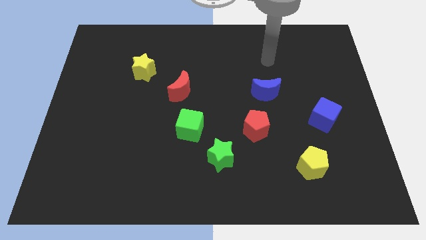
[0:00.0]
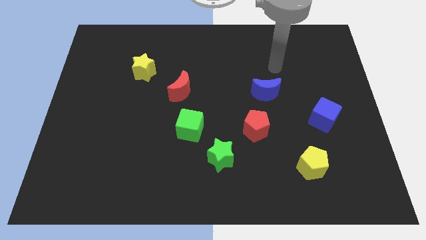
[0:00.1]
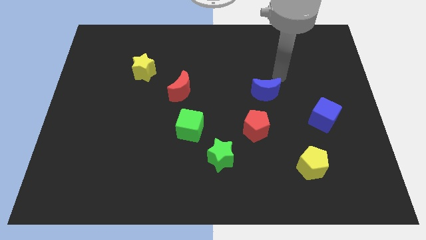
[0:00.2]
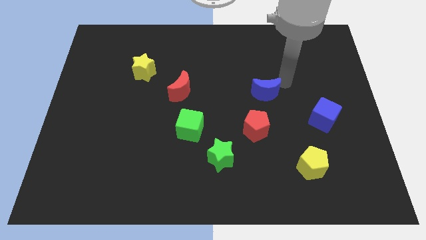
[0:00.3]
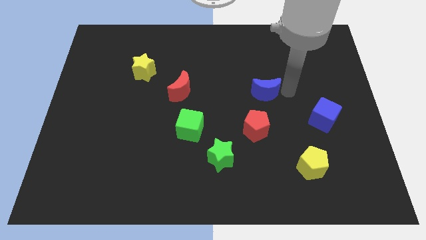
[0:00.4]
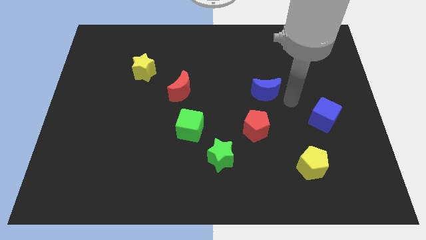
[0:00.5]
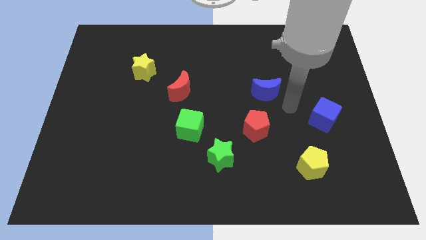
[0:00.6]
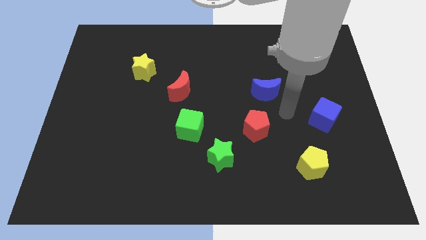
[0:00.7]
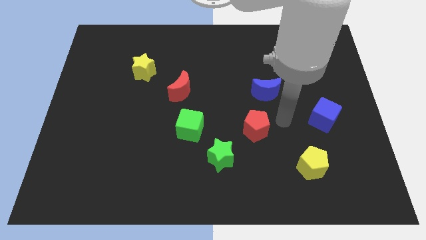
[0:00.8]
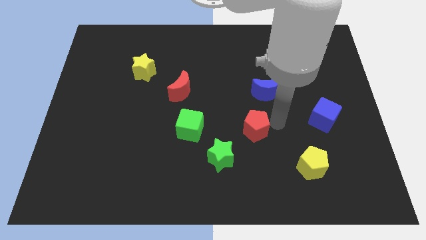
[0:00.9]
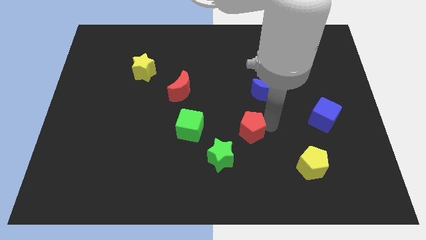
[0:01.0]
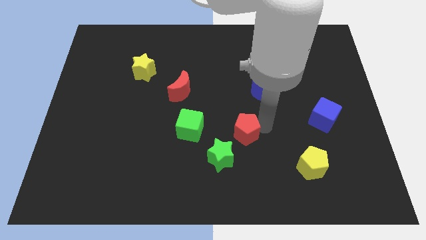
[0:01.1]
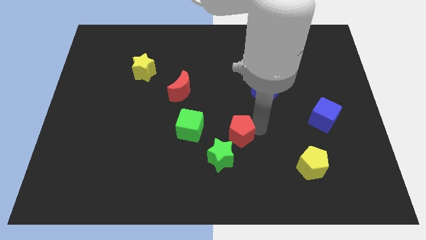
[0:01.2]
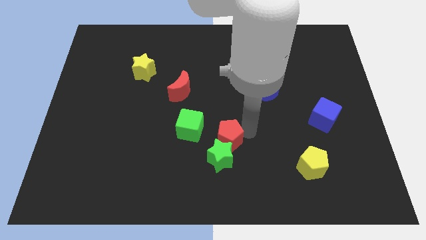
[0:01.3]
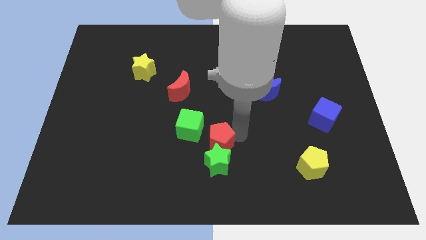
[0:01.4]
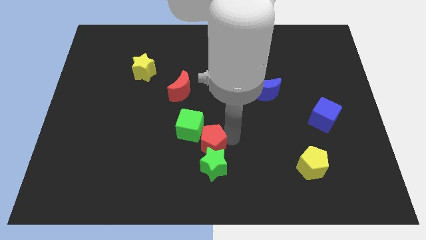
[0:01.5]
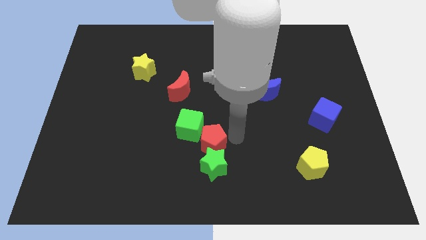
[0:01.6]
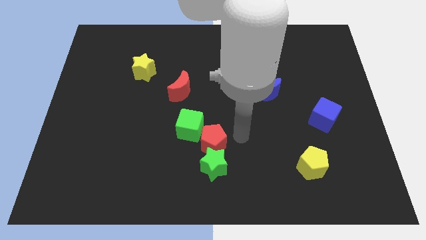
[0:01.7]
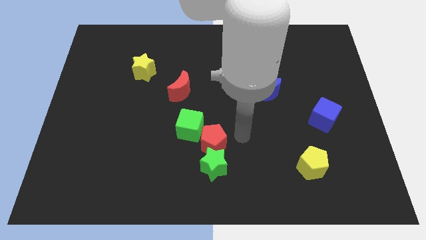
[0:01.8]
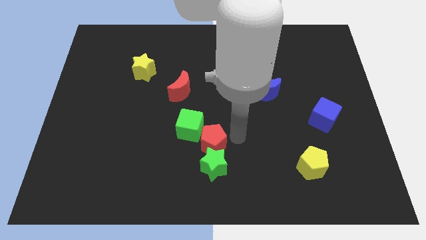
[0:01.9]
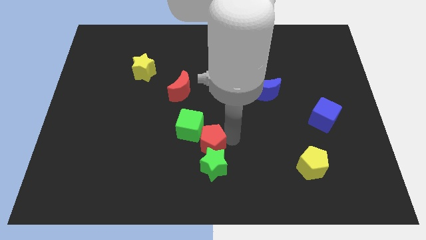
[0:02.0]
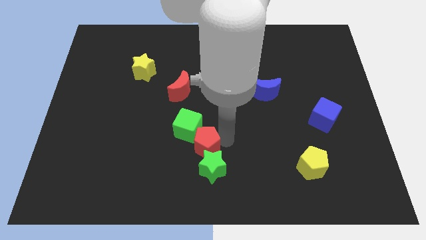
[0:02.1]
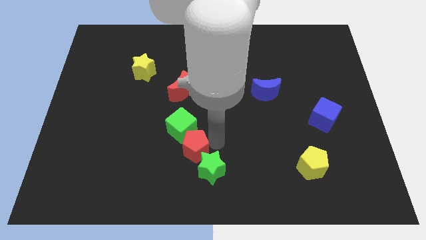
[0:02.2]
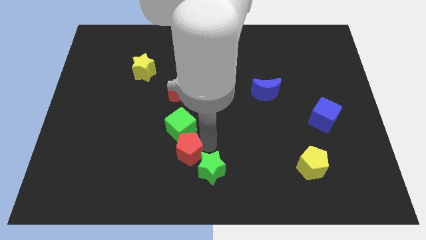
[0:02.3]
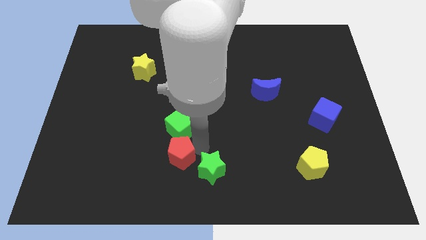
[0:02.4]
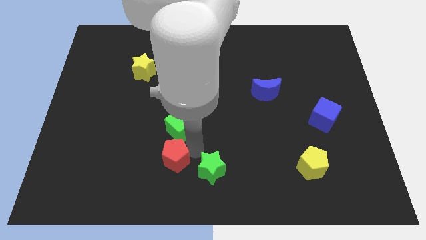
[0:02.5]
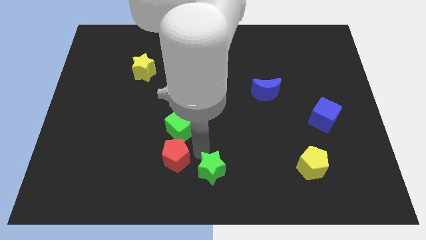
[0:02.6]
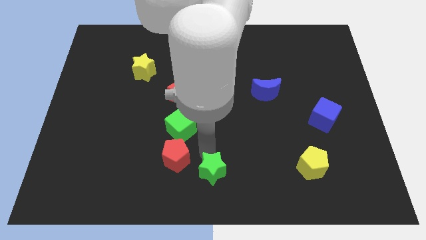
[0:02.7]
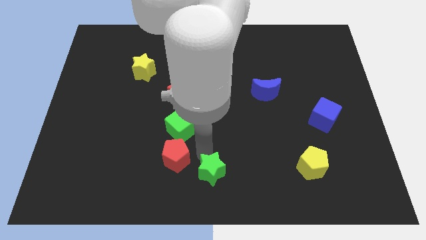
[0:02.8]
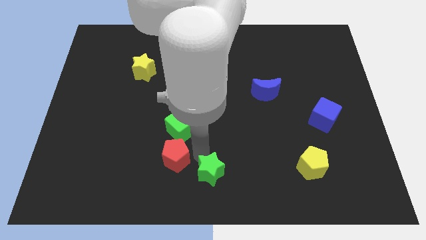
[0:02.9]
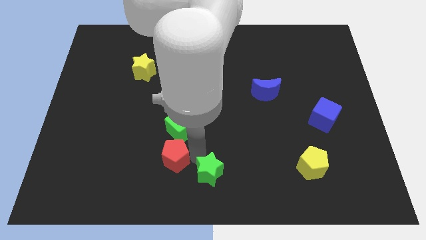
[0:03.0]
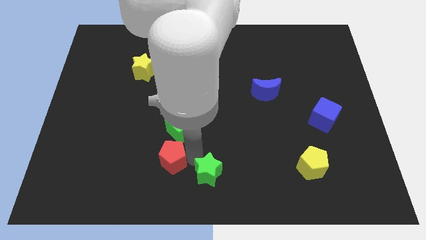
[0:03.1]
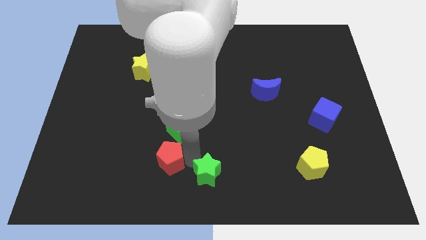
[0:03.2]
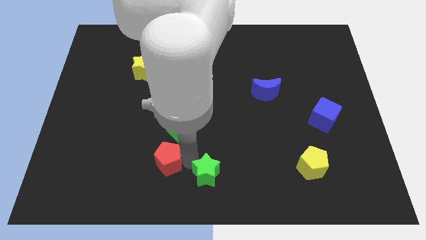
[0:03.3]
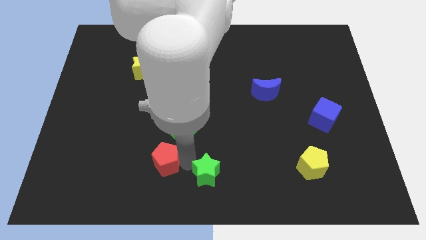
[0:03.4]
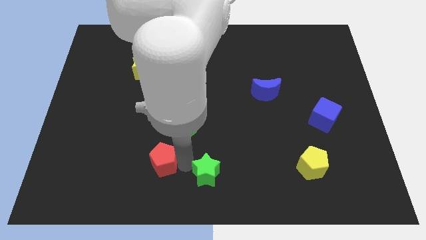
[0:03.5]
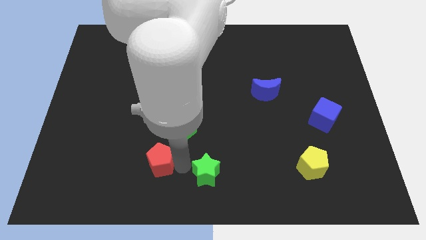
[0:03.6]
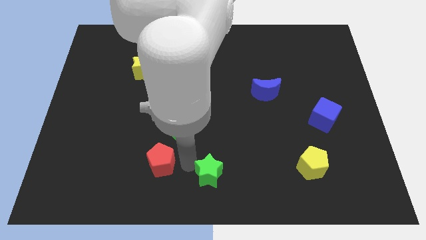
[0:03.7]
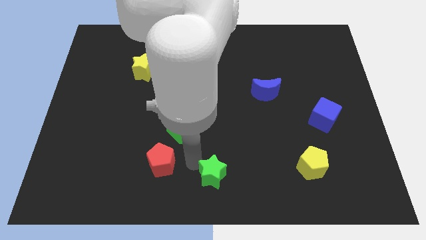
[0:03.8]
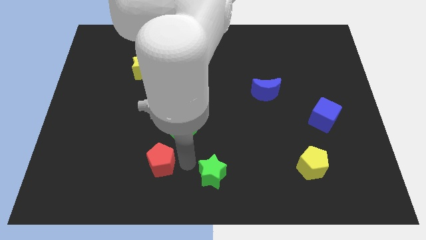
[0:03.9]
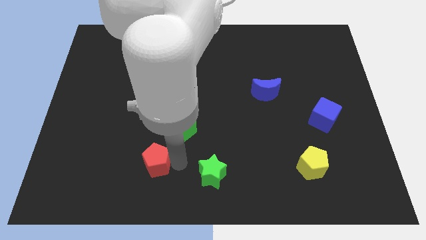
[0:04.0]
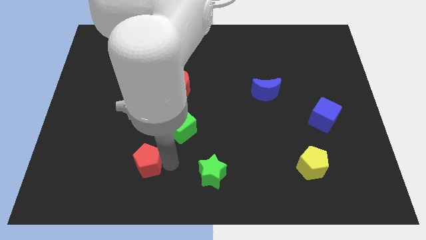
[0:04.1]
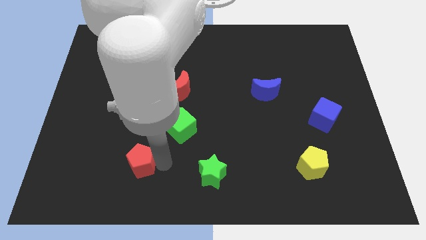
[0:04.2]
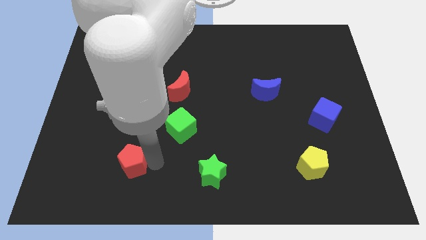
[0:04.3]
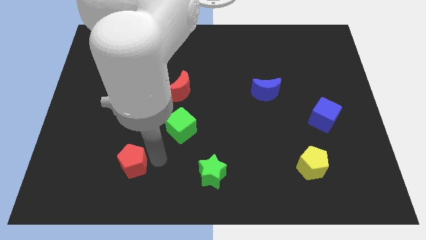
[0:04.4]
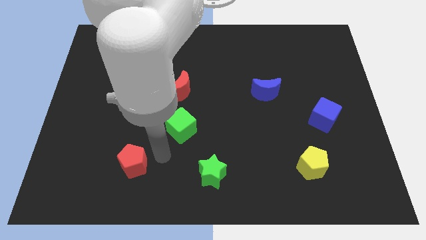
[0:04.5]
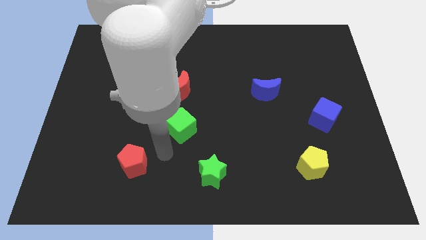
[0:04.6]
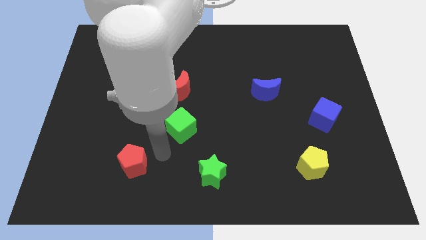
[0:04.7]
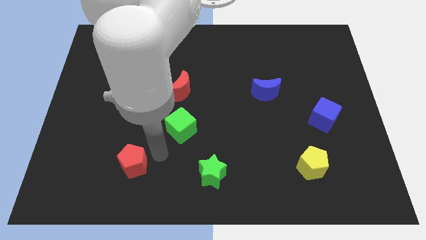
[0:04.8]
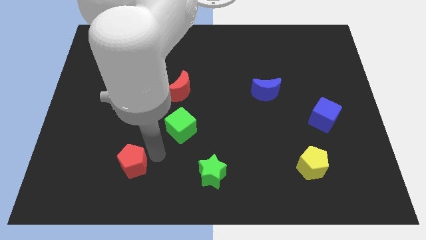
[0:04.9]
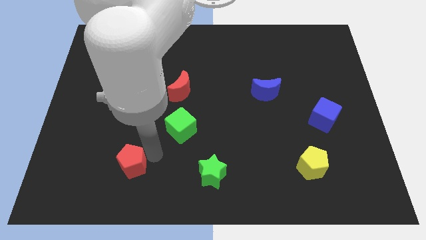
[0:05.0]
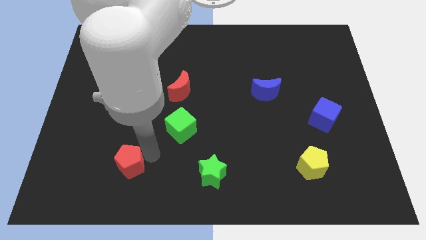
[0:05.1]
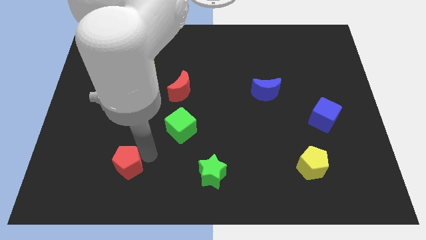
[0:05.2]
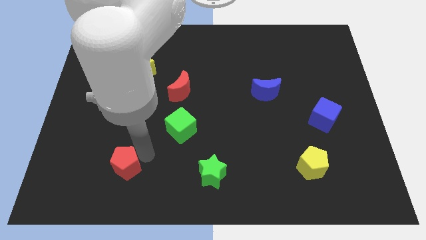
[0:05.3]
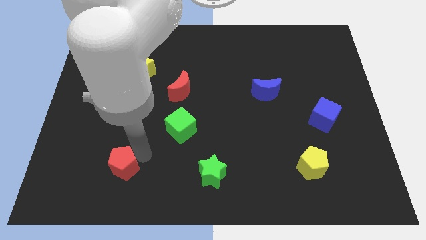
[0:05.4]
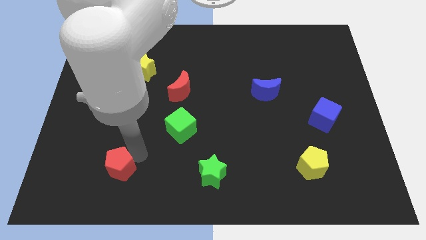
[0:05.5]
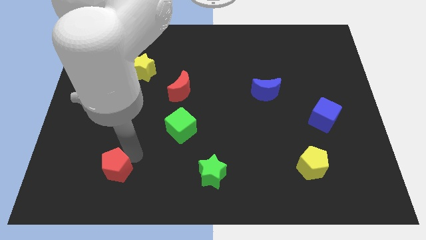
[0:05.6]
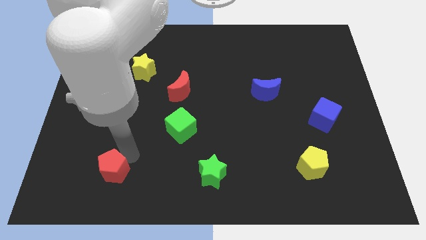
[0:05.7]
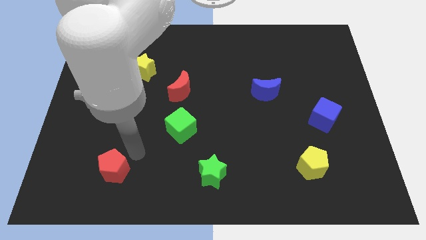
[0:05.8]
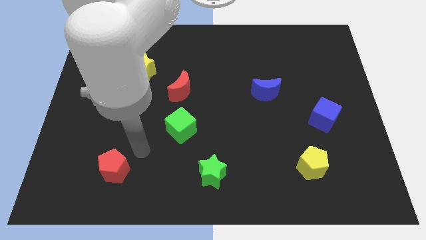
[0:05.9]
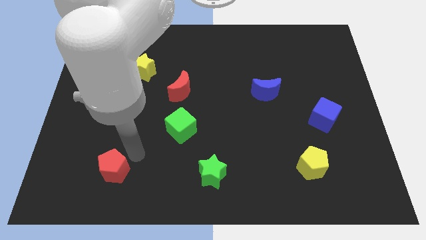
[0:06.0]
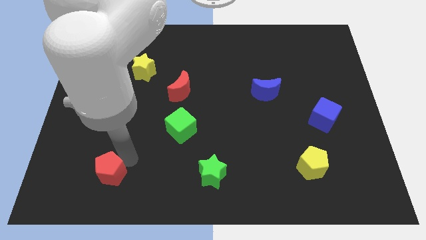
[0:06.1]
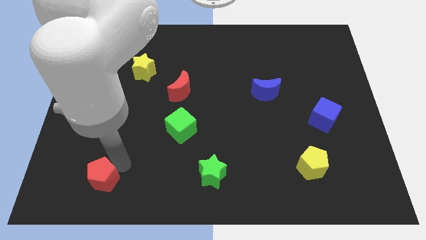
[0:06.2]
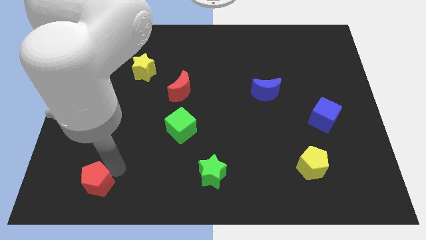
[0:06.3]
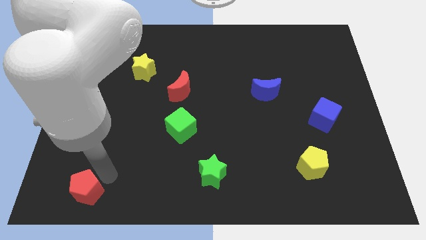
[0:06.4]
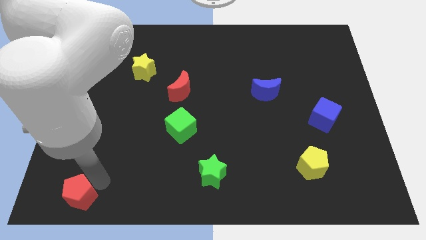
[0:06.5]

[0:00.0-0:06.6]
slide the red pentagon to the bottom left corner

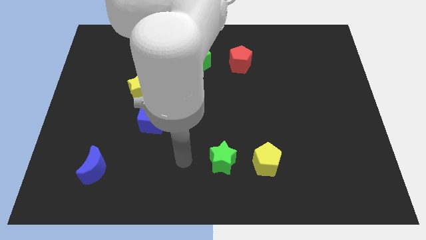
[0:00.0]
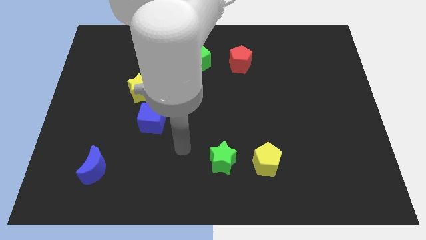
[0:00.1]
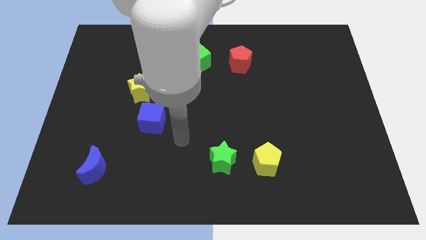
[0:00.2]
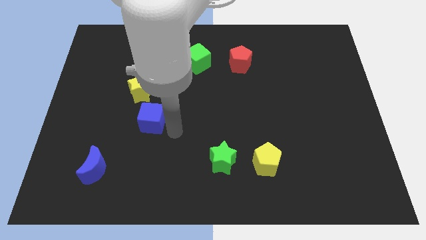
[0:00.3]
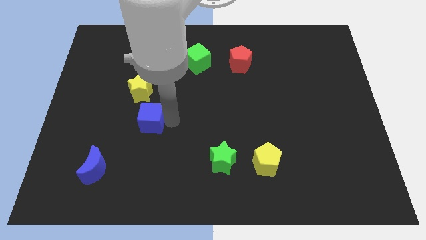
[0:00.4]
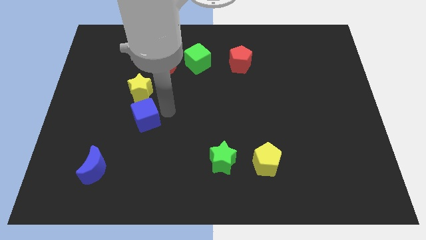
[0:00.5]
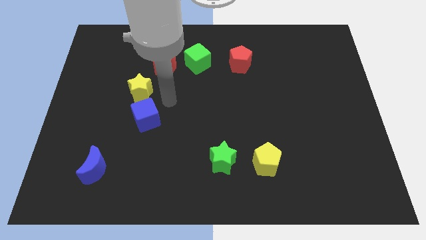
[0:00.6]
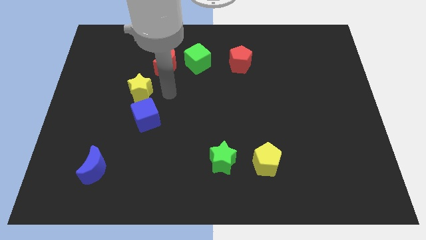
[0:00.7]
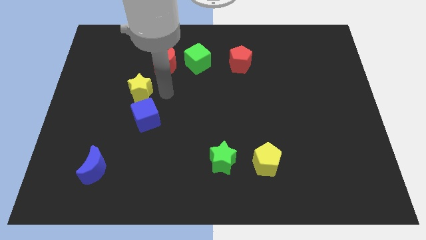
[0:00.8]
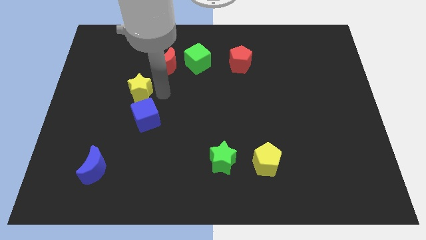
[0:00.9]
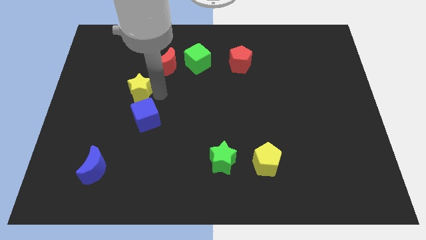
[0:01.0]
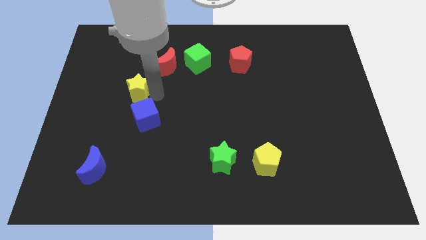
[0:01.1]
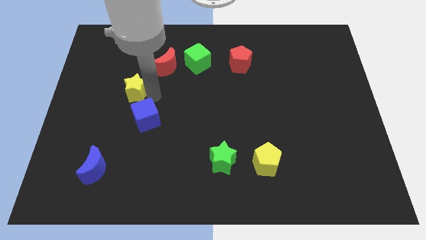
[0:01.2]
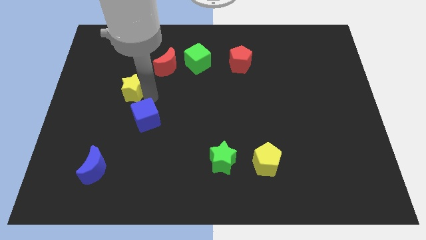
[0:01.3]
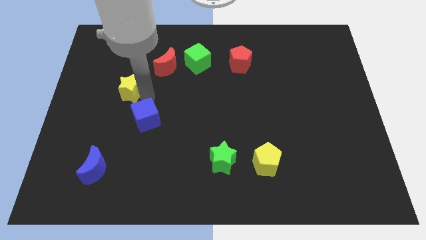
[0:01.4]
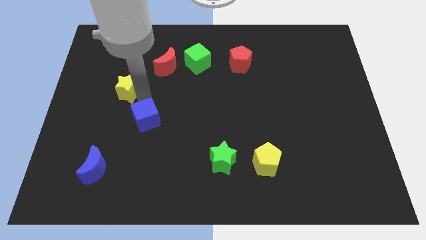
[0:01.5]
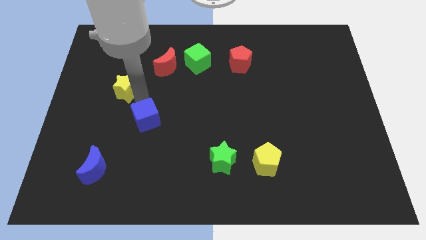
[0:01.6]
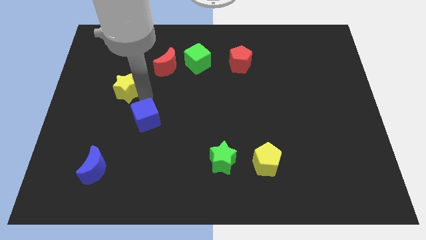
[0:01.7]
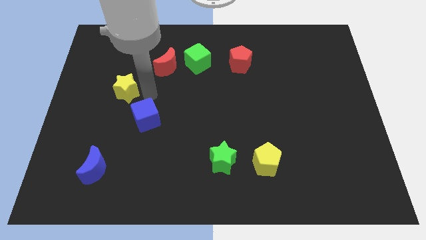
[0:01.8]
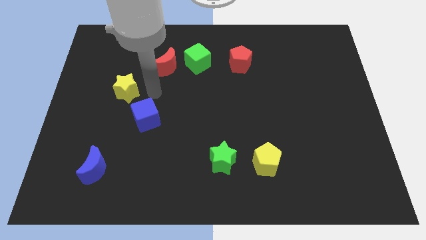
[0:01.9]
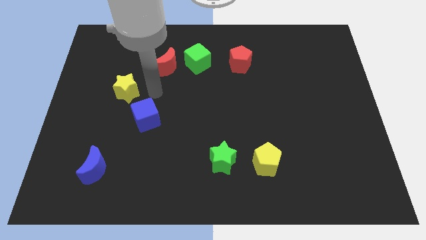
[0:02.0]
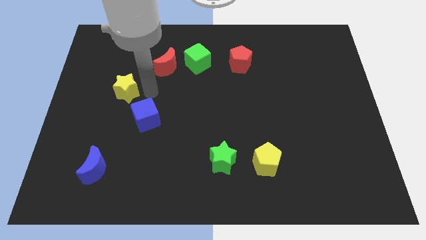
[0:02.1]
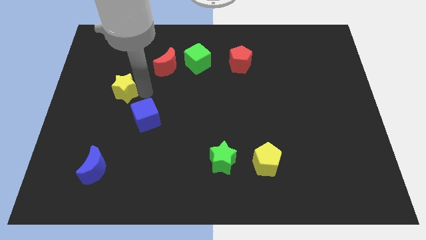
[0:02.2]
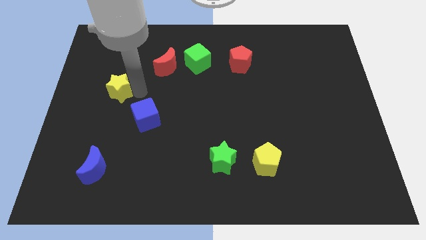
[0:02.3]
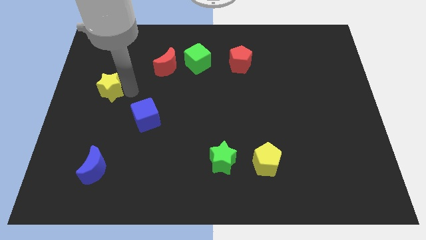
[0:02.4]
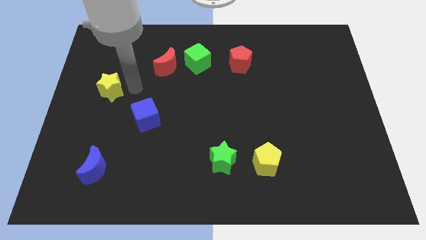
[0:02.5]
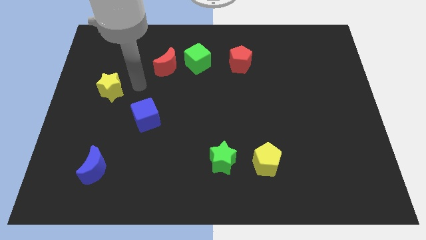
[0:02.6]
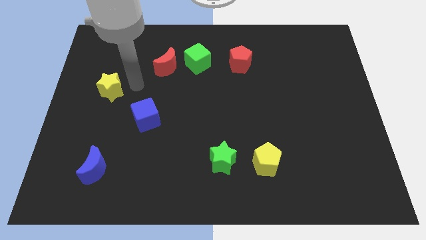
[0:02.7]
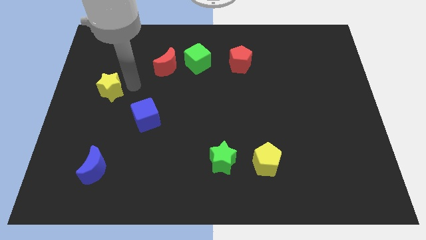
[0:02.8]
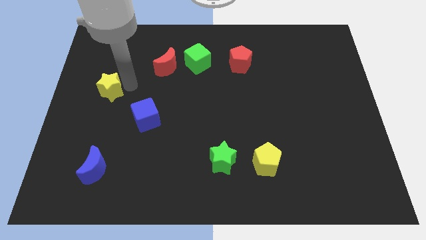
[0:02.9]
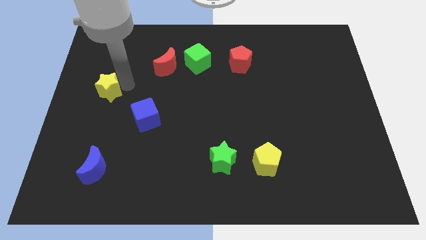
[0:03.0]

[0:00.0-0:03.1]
slide the yellow star to the left side of the board
